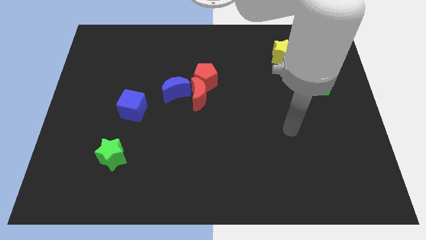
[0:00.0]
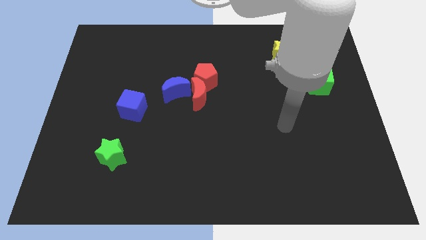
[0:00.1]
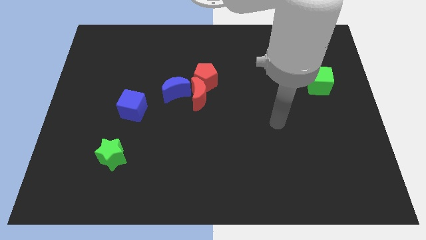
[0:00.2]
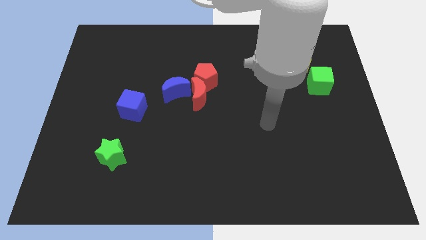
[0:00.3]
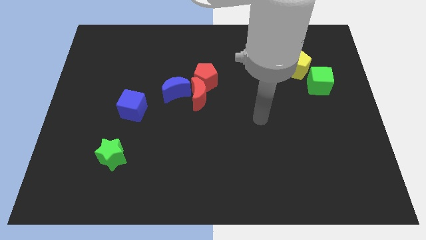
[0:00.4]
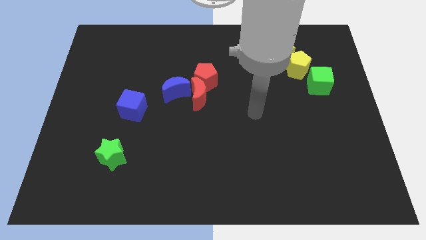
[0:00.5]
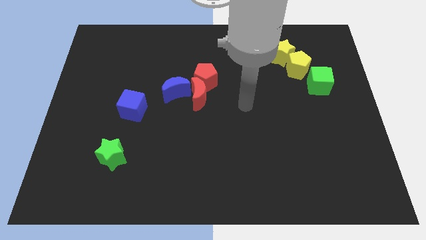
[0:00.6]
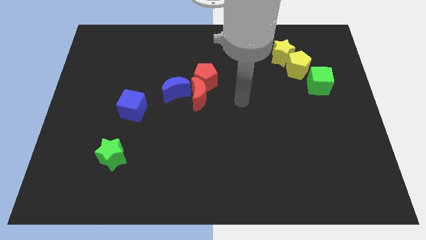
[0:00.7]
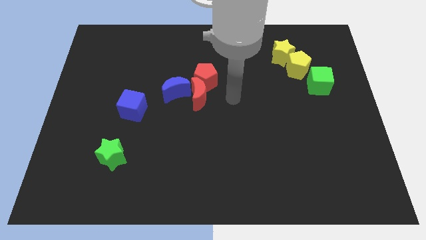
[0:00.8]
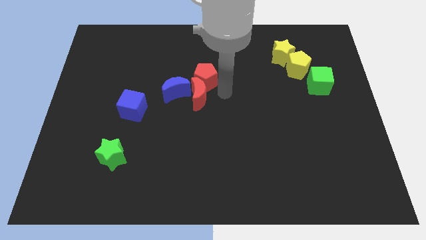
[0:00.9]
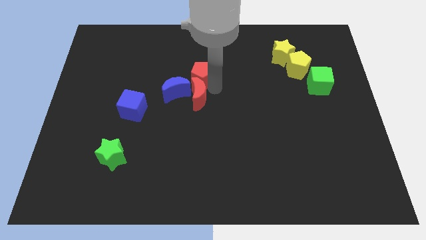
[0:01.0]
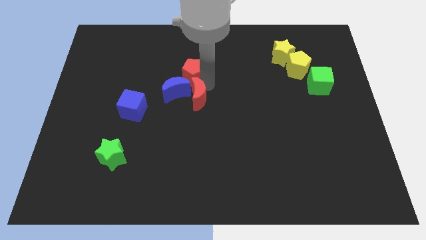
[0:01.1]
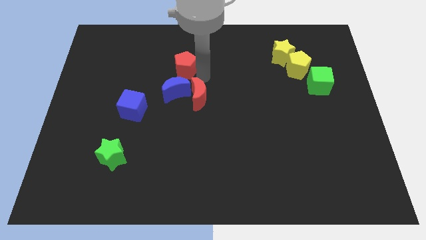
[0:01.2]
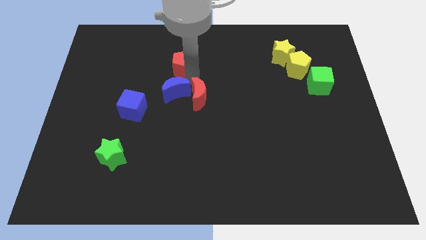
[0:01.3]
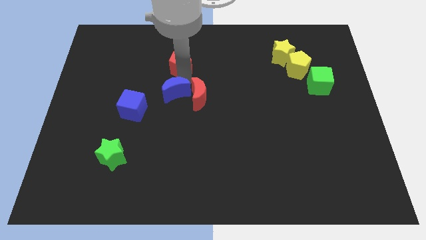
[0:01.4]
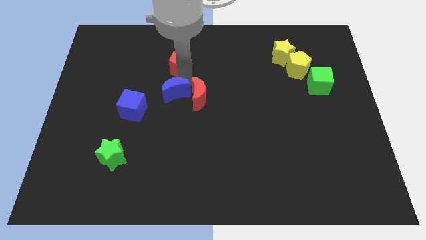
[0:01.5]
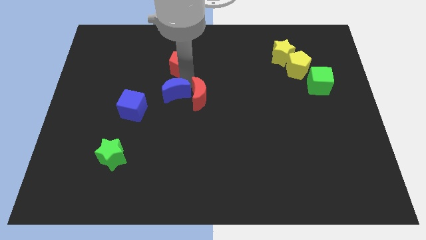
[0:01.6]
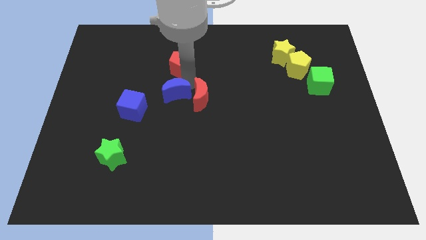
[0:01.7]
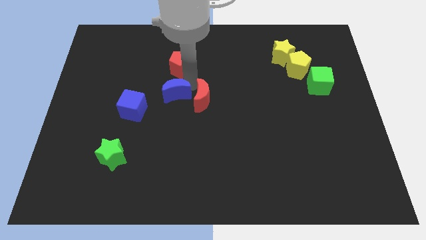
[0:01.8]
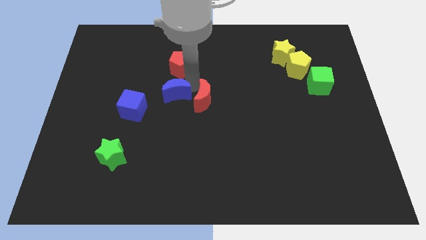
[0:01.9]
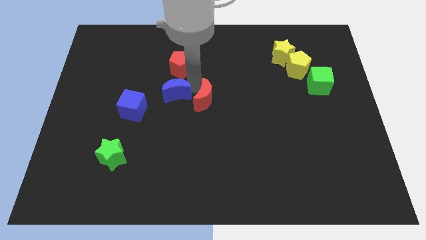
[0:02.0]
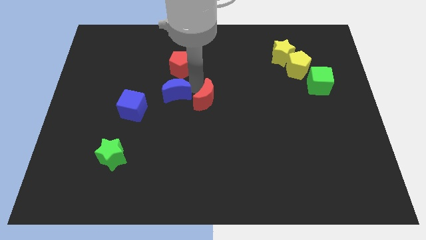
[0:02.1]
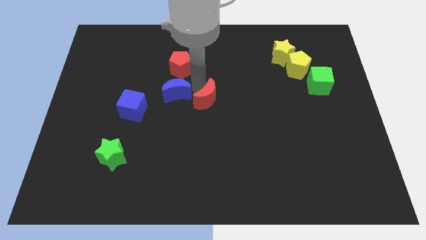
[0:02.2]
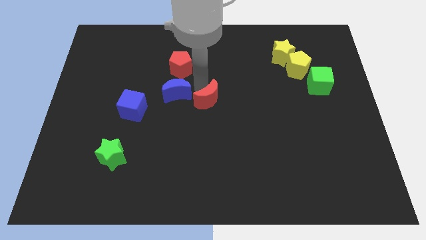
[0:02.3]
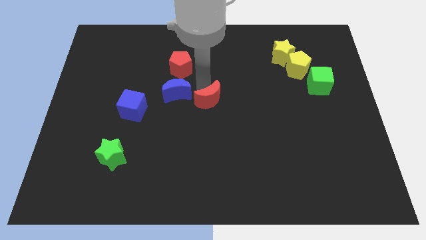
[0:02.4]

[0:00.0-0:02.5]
separate the red moon from the red pentagon and blue moon

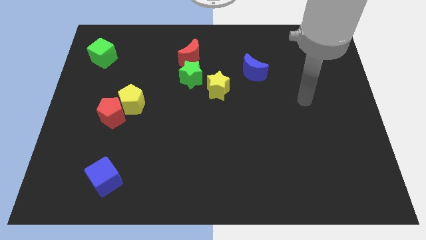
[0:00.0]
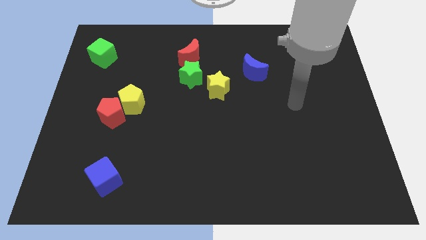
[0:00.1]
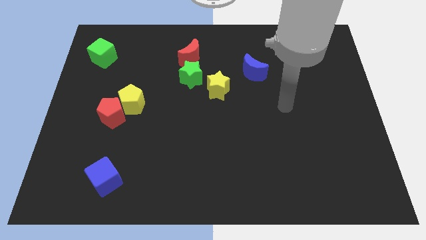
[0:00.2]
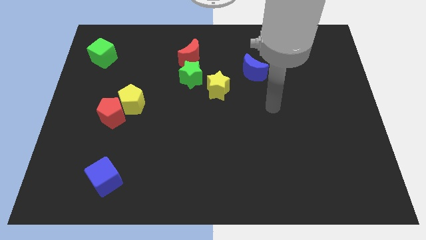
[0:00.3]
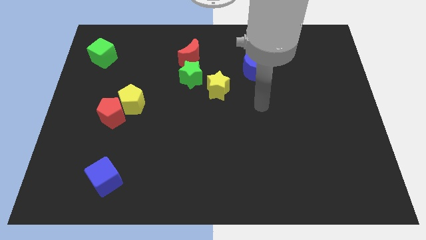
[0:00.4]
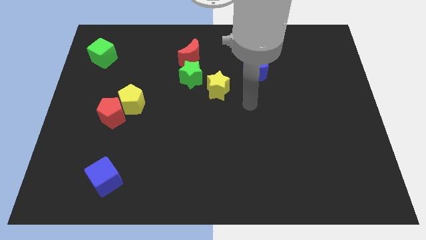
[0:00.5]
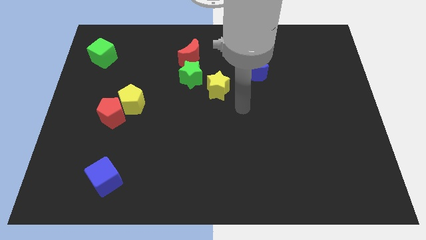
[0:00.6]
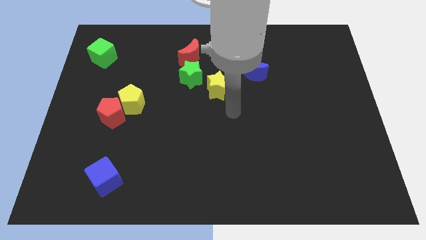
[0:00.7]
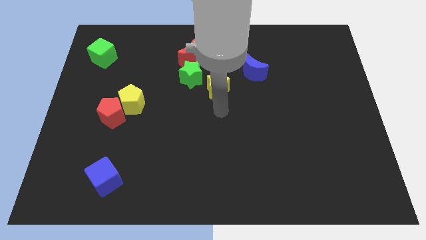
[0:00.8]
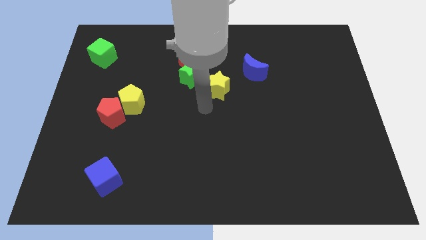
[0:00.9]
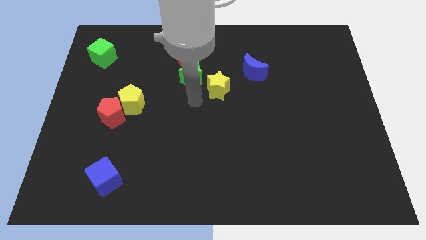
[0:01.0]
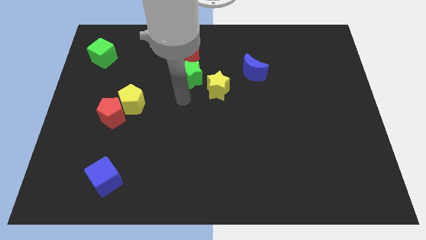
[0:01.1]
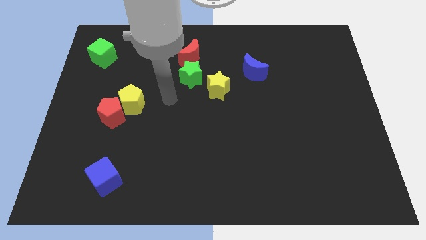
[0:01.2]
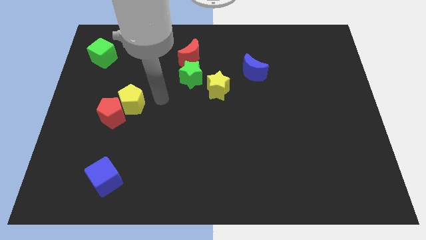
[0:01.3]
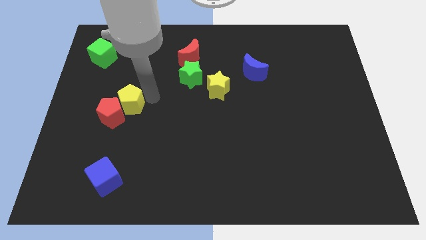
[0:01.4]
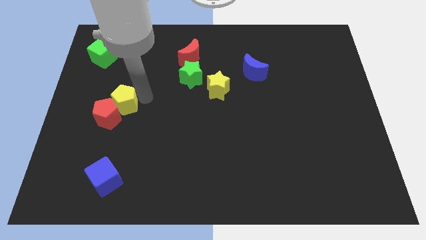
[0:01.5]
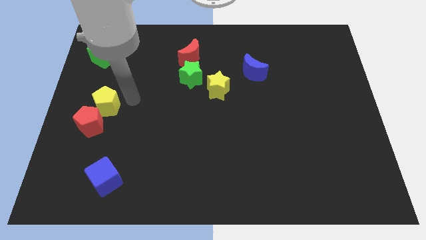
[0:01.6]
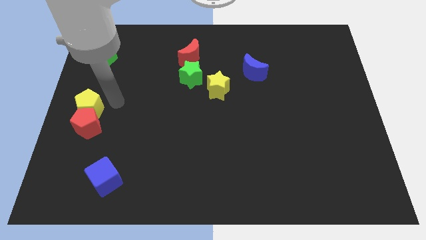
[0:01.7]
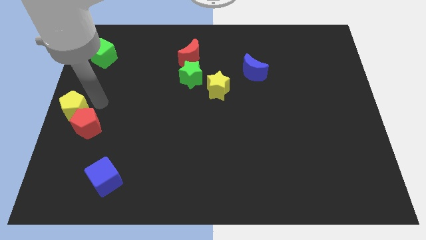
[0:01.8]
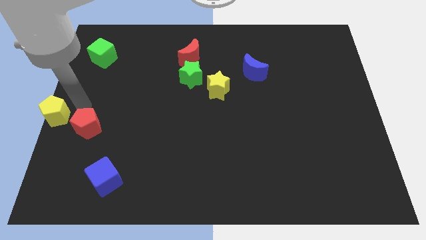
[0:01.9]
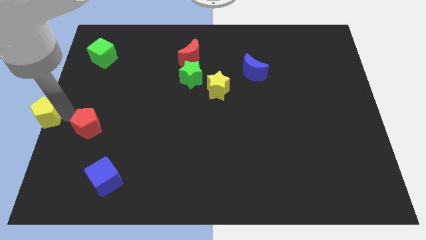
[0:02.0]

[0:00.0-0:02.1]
move the red pentagon away from the yellow pentagon

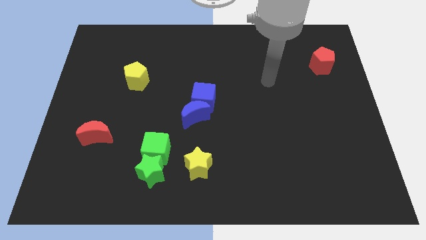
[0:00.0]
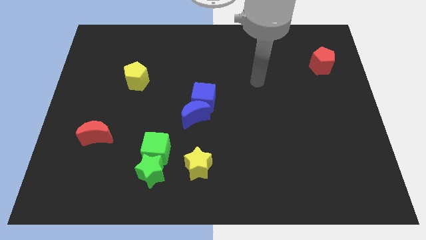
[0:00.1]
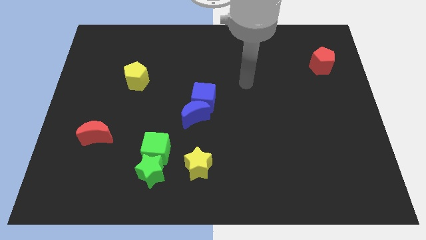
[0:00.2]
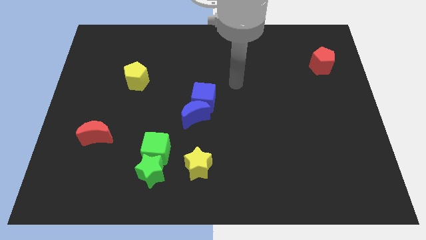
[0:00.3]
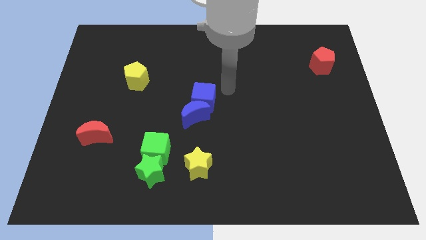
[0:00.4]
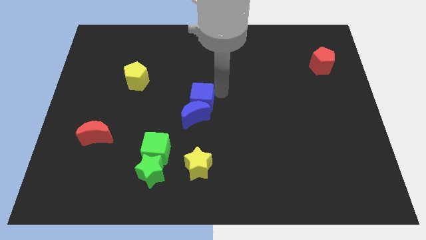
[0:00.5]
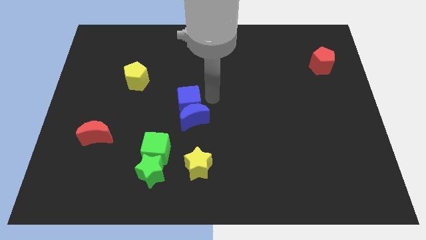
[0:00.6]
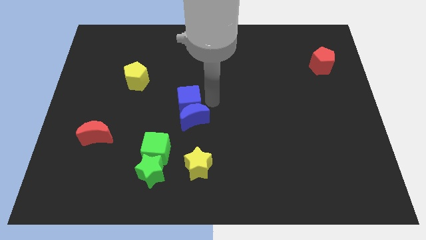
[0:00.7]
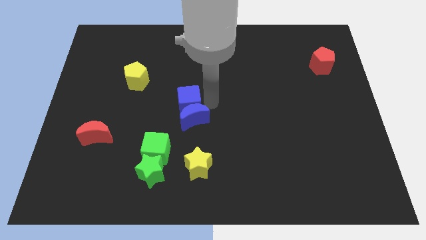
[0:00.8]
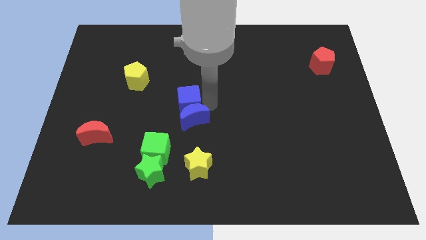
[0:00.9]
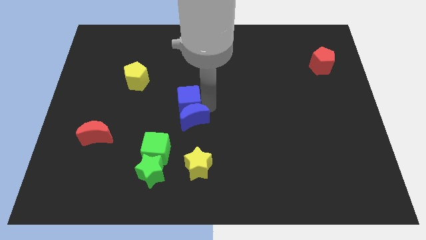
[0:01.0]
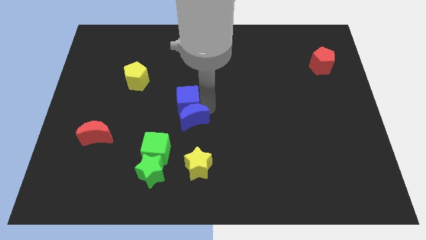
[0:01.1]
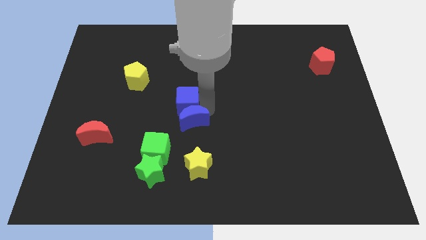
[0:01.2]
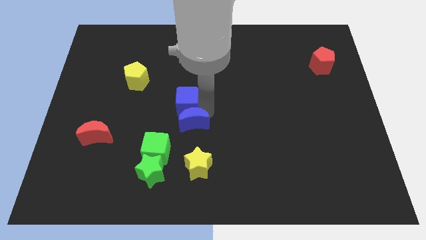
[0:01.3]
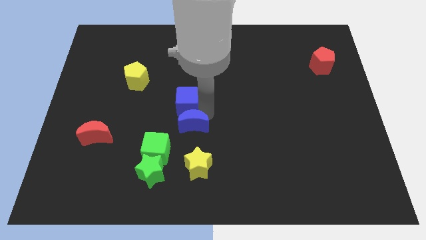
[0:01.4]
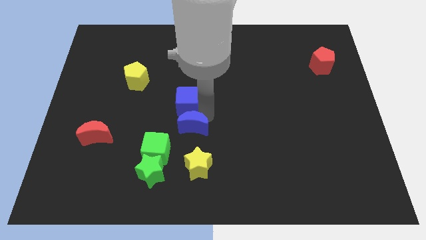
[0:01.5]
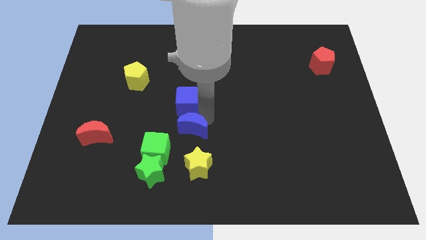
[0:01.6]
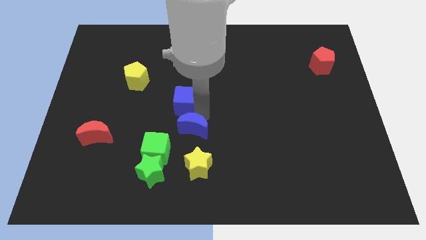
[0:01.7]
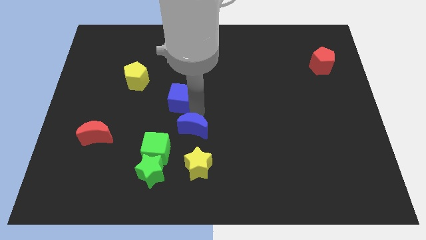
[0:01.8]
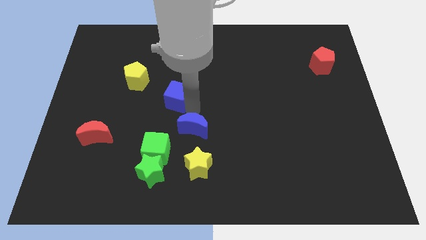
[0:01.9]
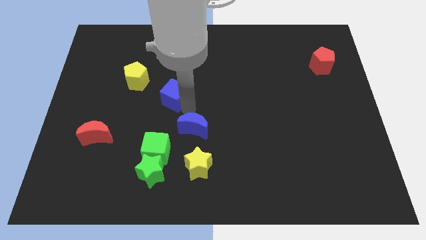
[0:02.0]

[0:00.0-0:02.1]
move the blue moon away from the blue cube

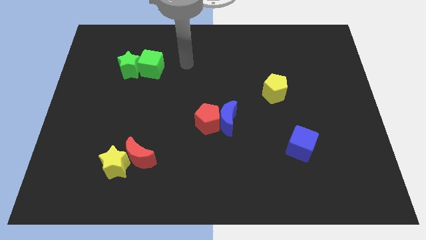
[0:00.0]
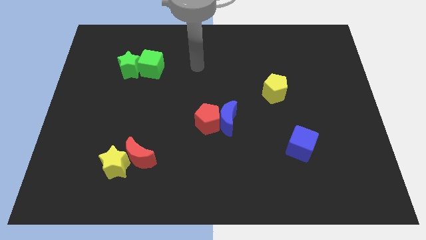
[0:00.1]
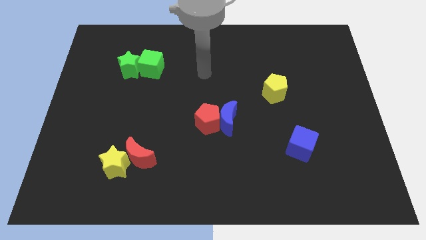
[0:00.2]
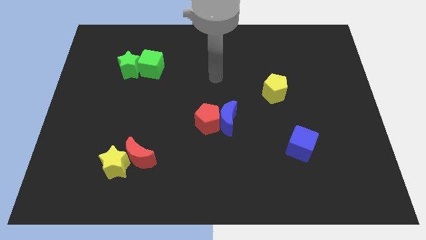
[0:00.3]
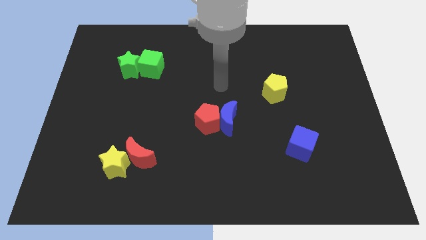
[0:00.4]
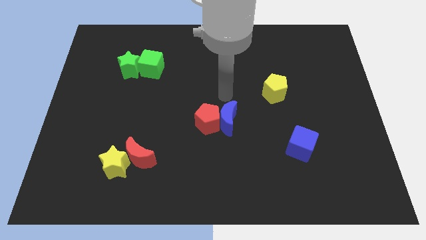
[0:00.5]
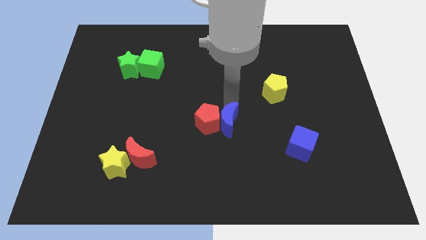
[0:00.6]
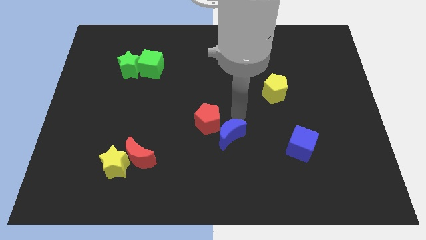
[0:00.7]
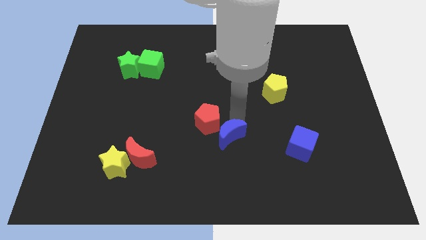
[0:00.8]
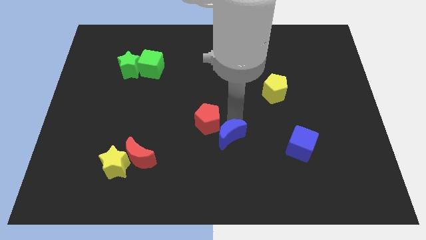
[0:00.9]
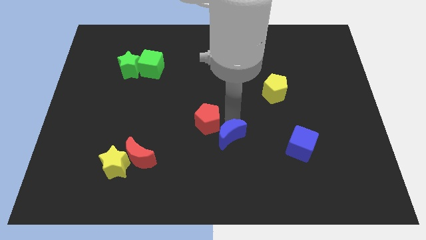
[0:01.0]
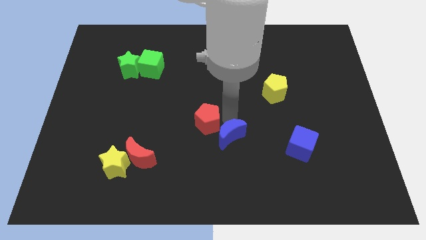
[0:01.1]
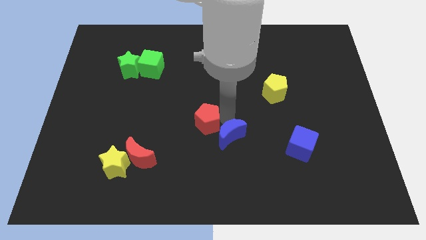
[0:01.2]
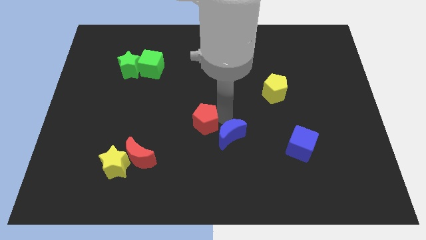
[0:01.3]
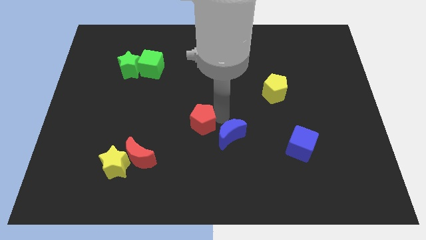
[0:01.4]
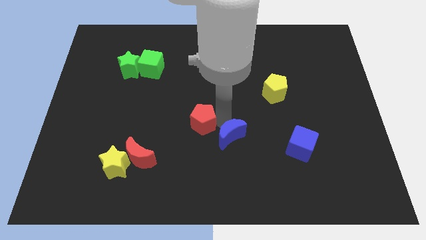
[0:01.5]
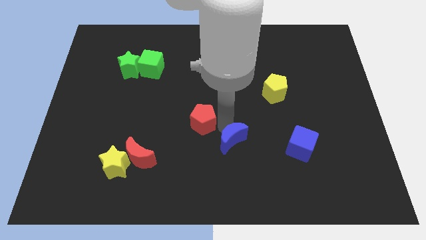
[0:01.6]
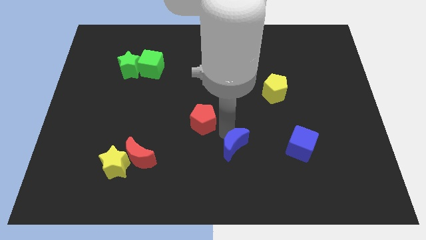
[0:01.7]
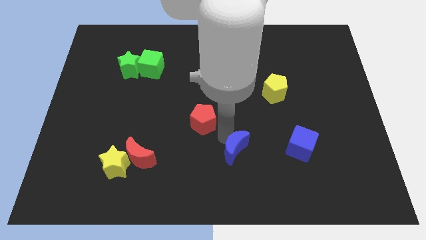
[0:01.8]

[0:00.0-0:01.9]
separate the red pentagon from the blue moon

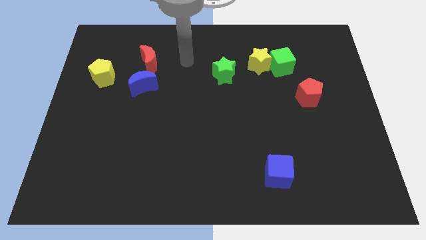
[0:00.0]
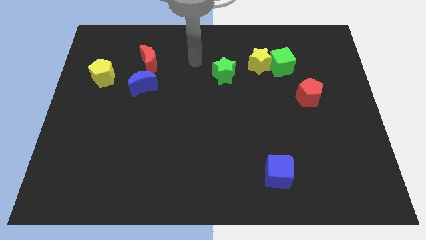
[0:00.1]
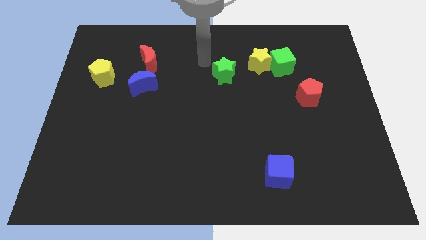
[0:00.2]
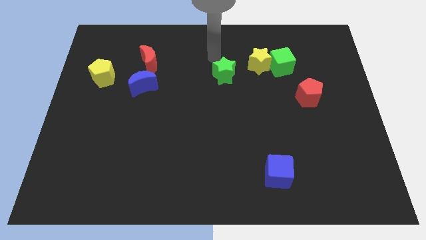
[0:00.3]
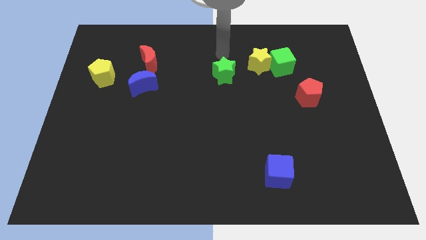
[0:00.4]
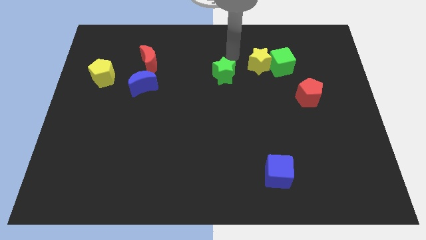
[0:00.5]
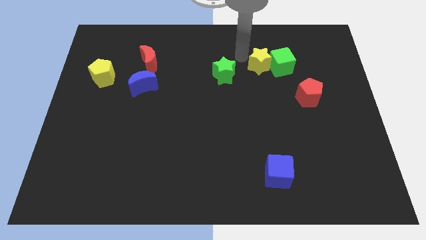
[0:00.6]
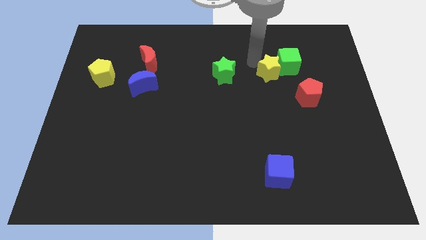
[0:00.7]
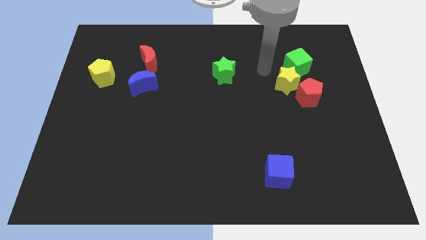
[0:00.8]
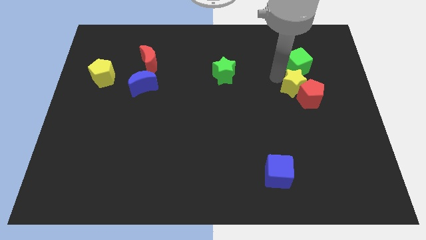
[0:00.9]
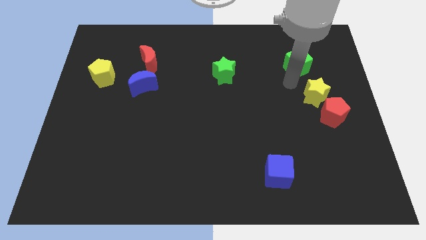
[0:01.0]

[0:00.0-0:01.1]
separate the green cube from the yellow star
